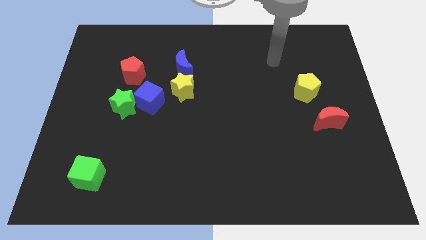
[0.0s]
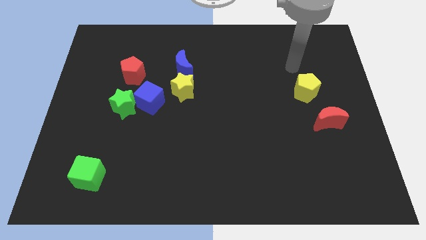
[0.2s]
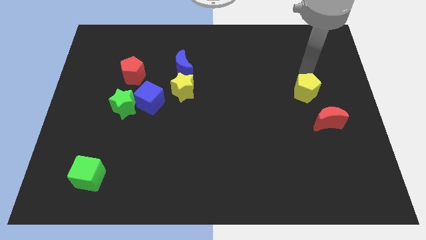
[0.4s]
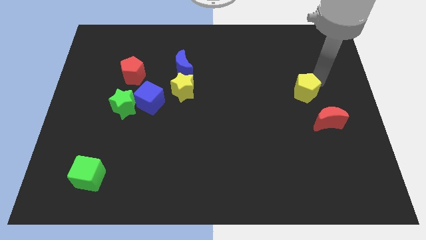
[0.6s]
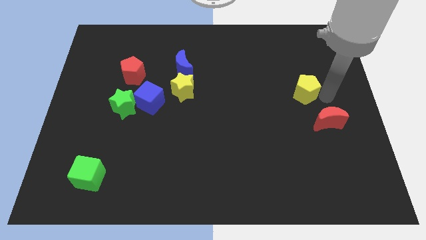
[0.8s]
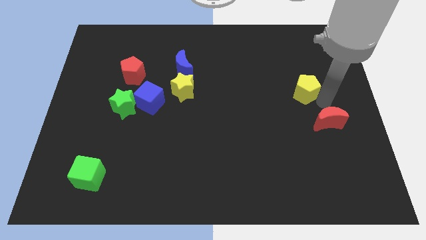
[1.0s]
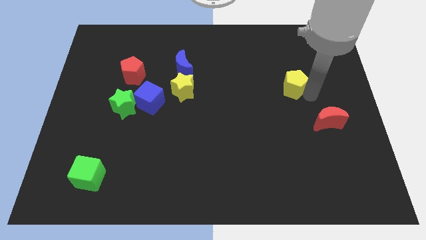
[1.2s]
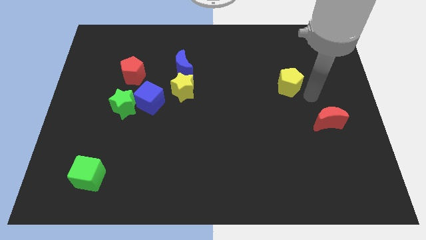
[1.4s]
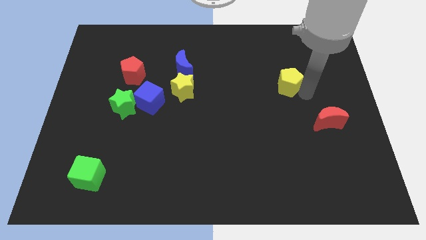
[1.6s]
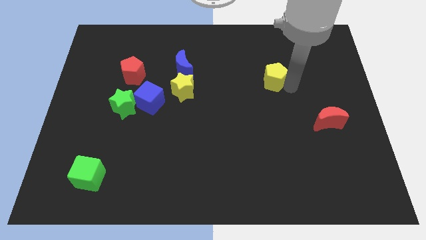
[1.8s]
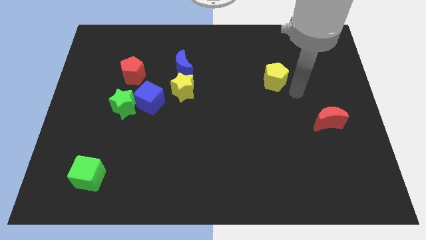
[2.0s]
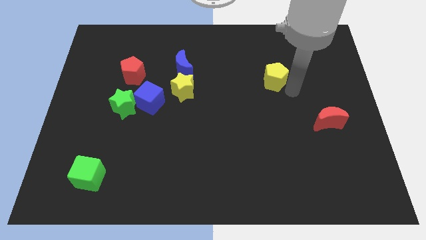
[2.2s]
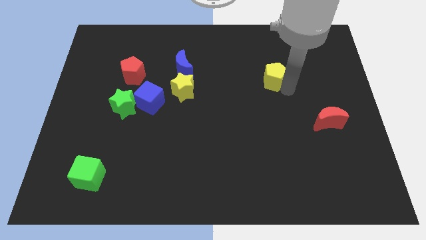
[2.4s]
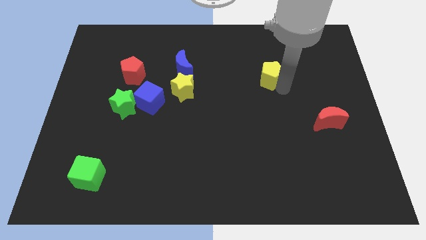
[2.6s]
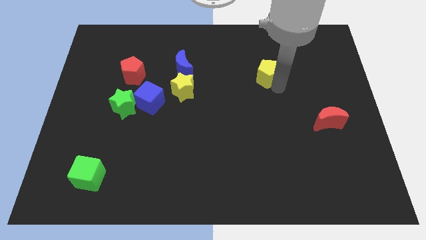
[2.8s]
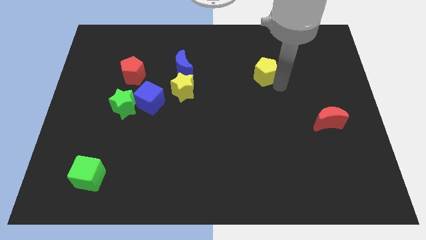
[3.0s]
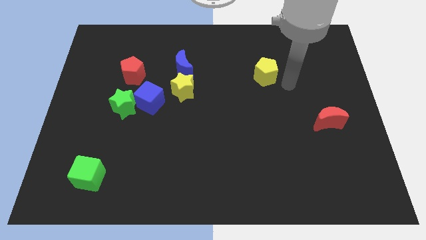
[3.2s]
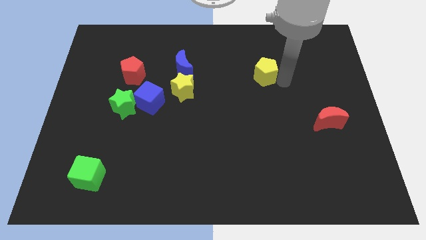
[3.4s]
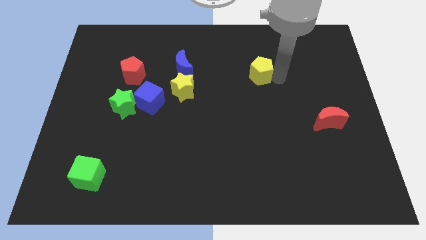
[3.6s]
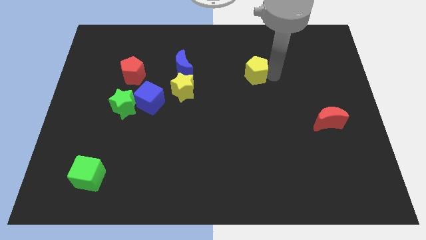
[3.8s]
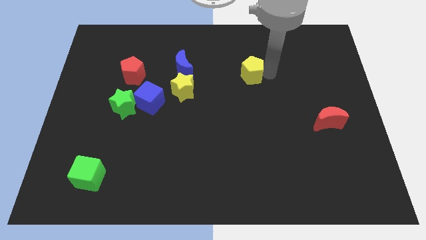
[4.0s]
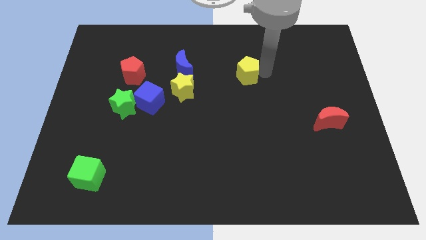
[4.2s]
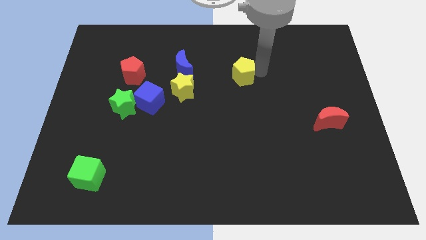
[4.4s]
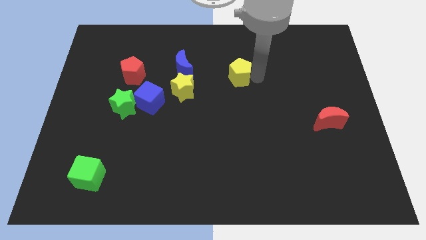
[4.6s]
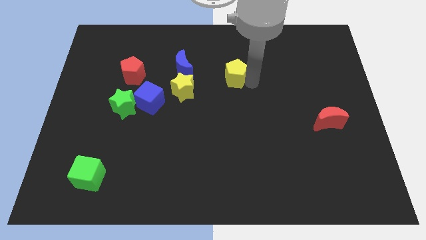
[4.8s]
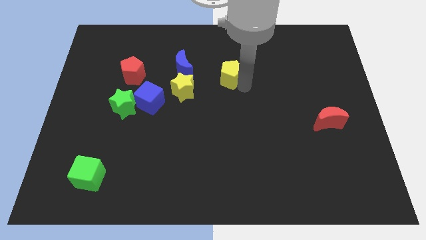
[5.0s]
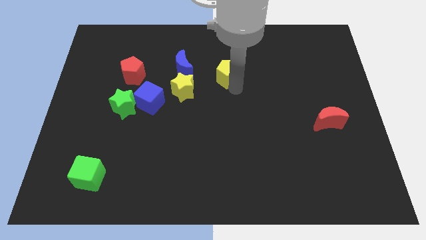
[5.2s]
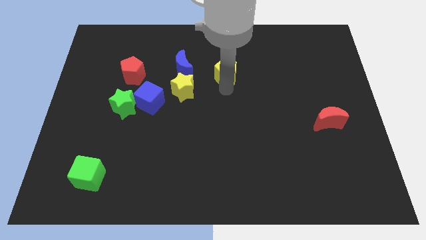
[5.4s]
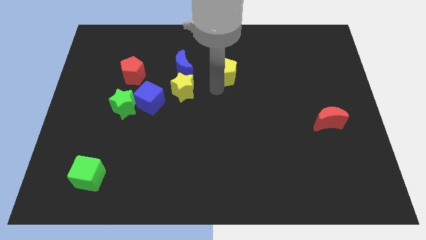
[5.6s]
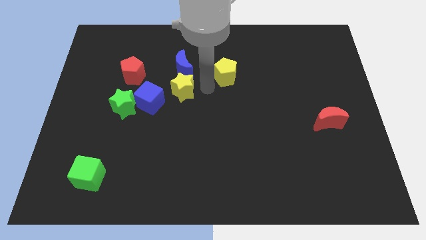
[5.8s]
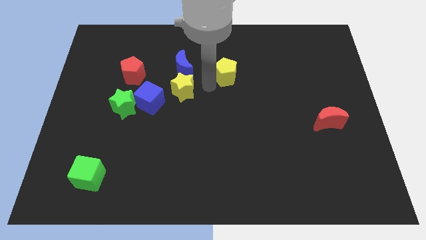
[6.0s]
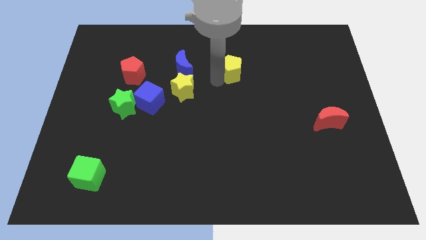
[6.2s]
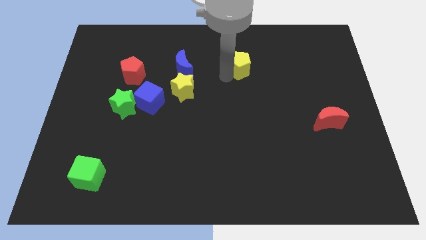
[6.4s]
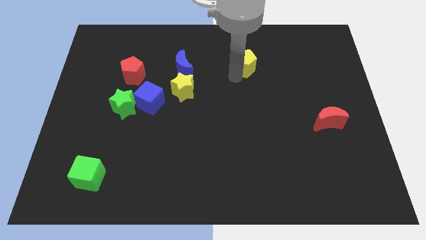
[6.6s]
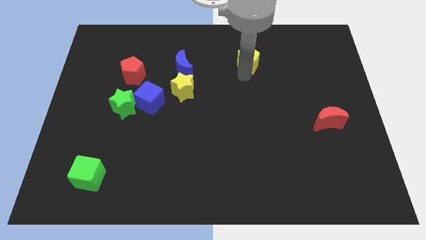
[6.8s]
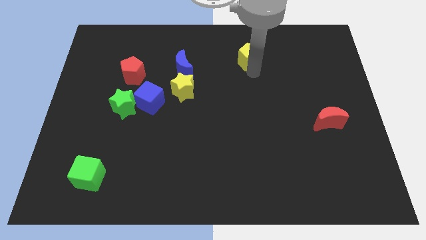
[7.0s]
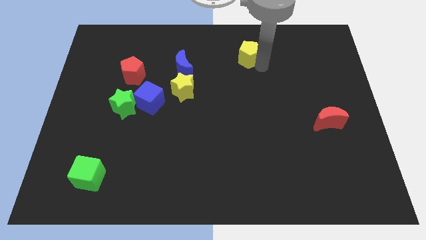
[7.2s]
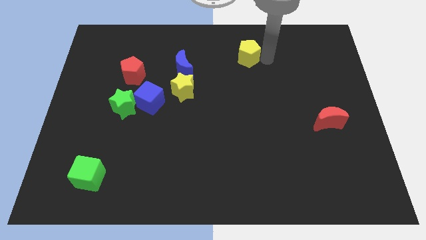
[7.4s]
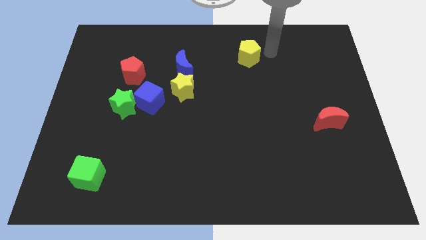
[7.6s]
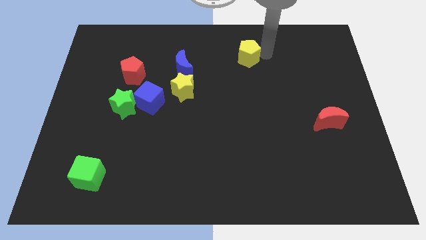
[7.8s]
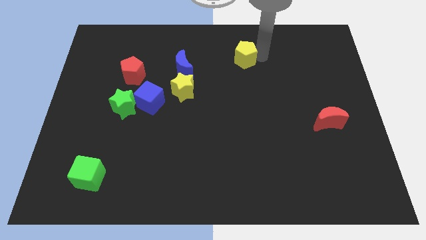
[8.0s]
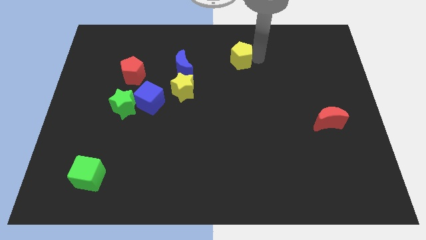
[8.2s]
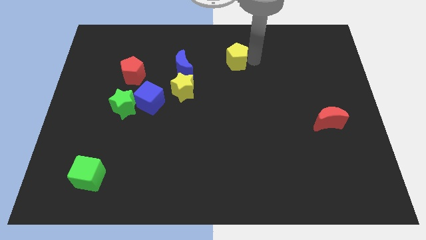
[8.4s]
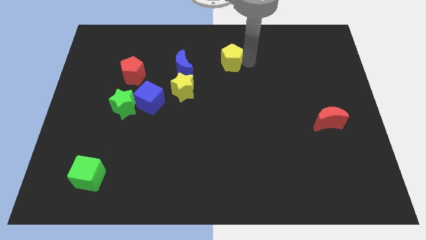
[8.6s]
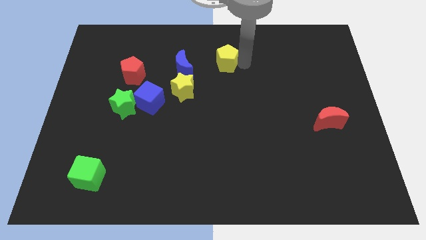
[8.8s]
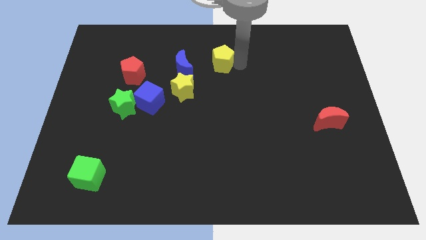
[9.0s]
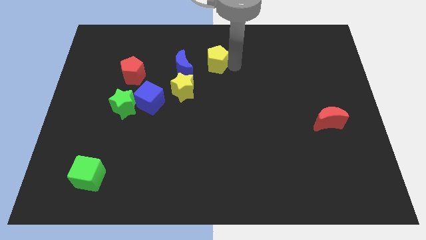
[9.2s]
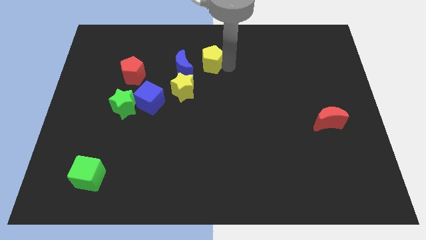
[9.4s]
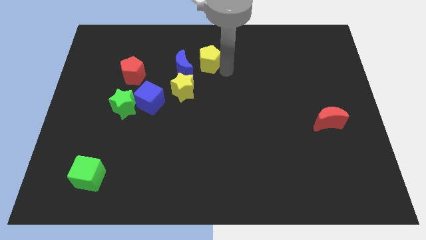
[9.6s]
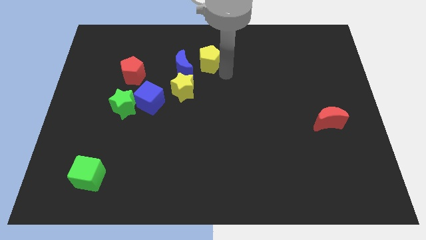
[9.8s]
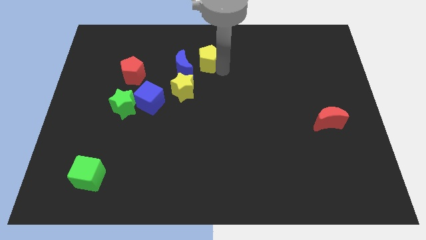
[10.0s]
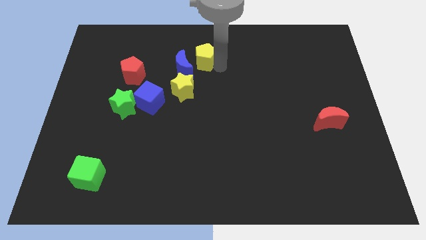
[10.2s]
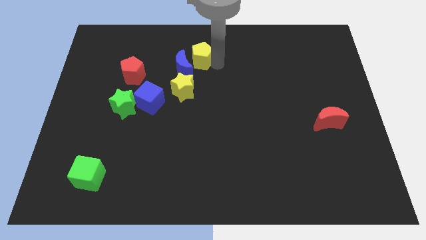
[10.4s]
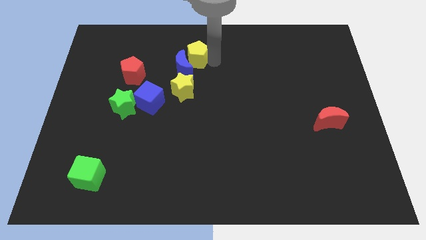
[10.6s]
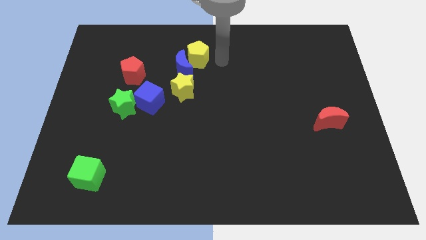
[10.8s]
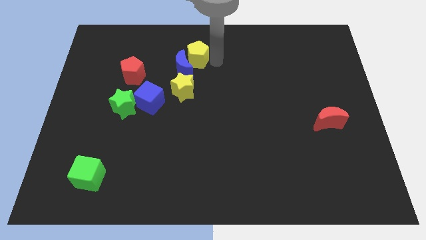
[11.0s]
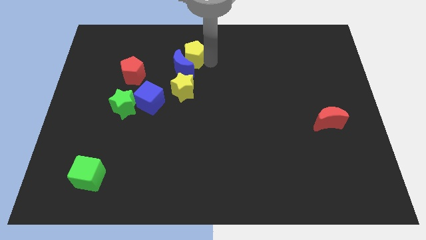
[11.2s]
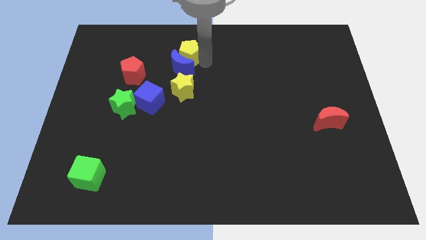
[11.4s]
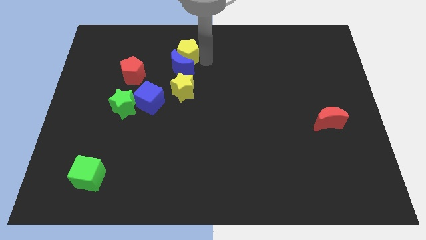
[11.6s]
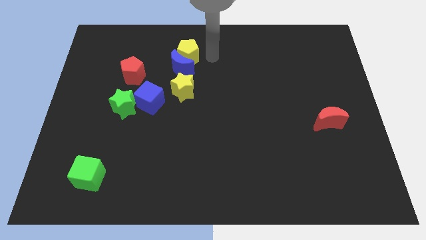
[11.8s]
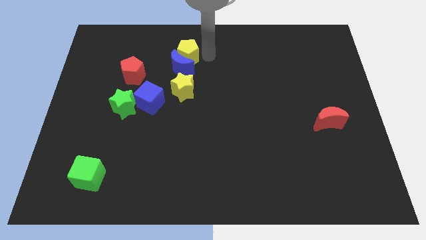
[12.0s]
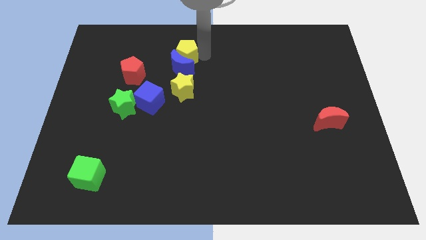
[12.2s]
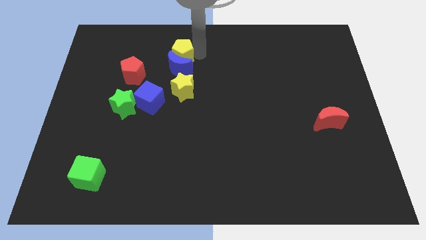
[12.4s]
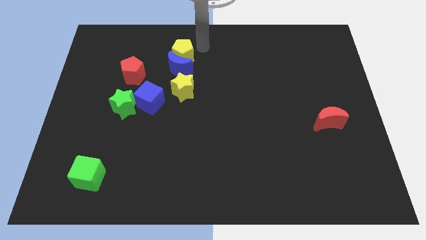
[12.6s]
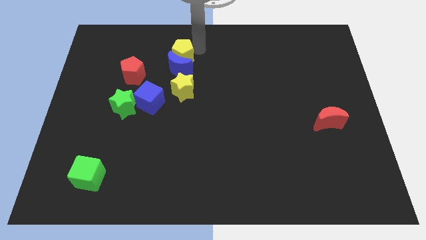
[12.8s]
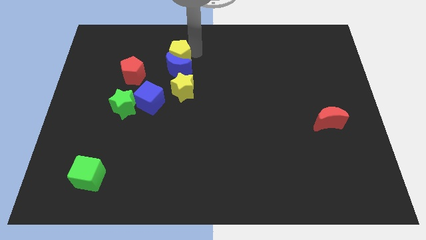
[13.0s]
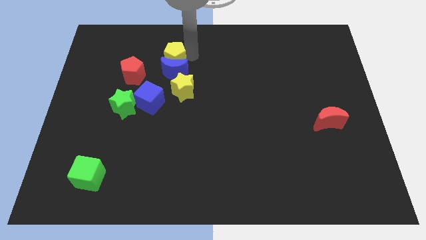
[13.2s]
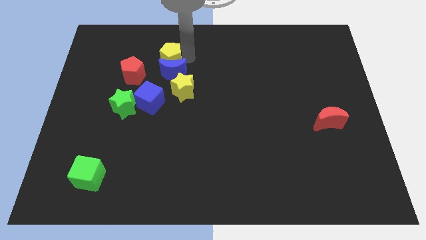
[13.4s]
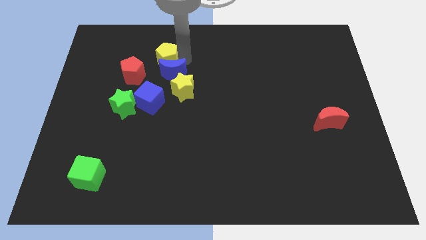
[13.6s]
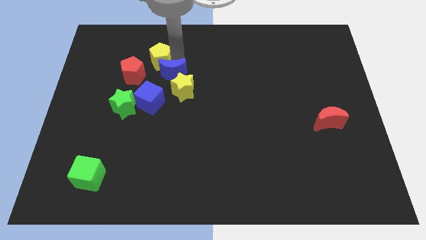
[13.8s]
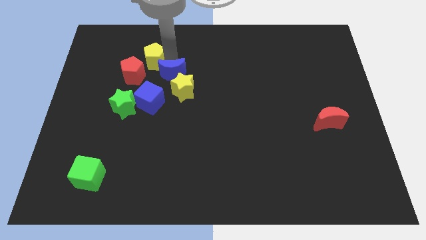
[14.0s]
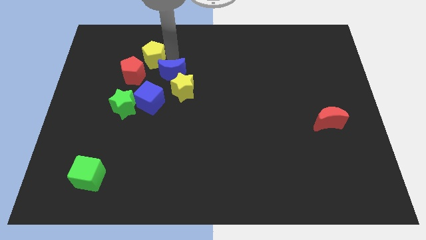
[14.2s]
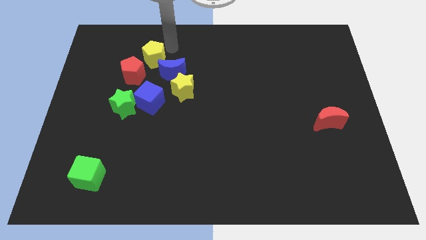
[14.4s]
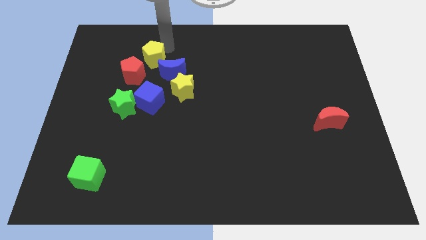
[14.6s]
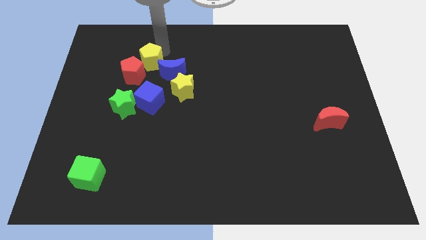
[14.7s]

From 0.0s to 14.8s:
slide the yellow pentagon to the red pentagon

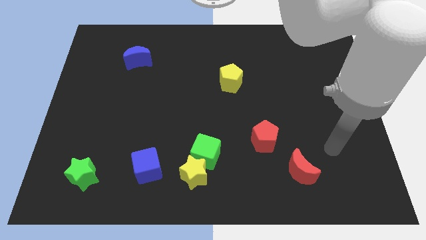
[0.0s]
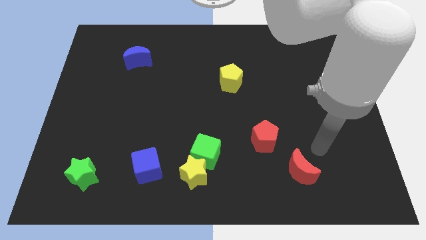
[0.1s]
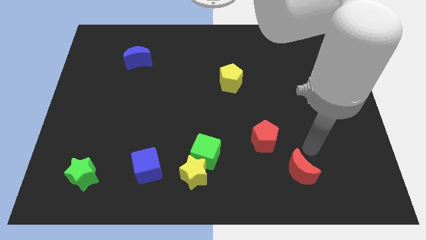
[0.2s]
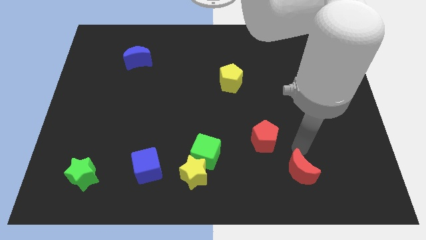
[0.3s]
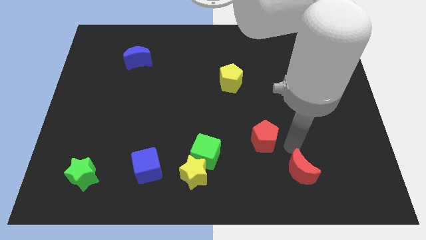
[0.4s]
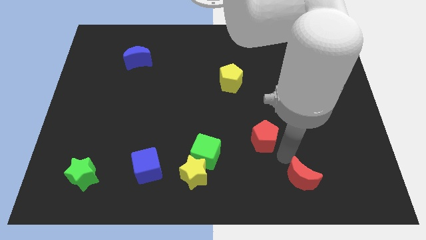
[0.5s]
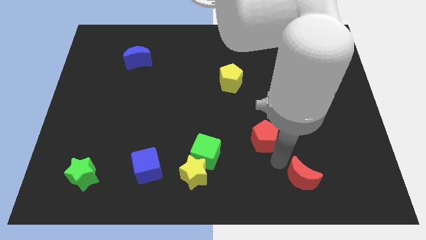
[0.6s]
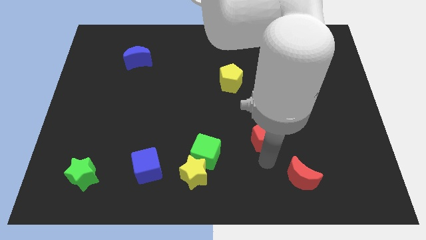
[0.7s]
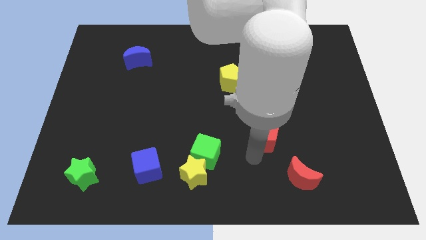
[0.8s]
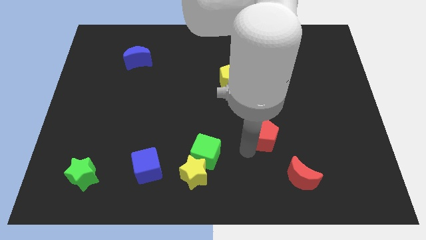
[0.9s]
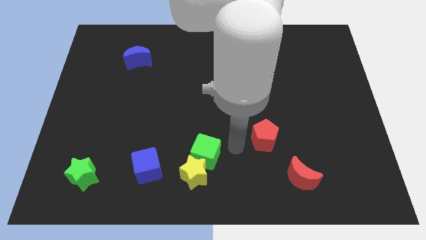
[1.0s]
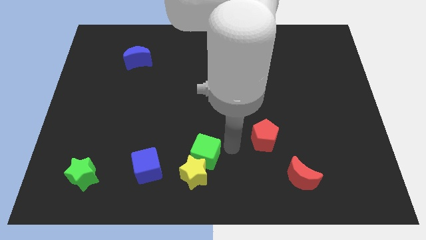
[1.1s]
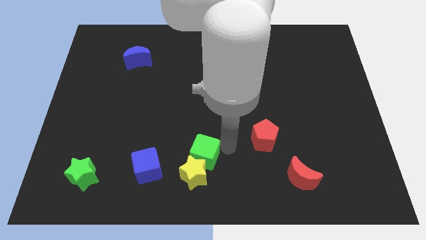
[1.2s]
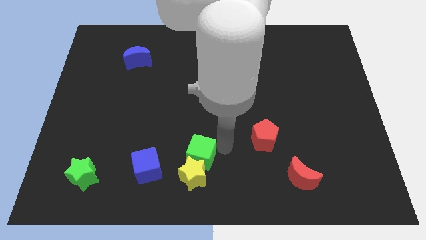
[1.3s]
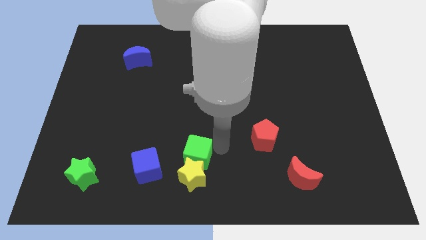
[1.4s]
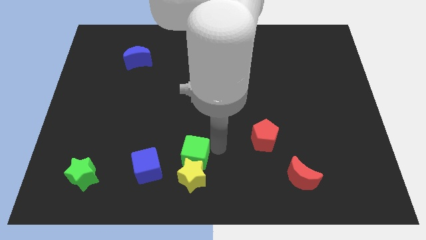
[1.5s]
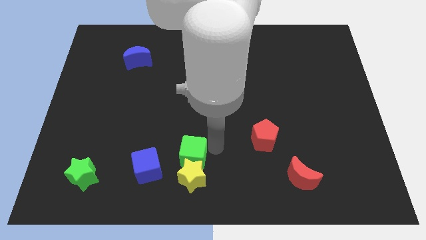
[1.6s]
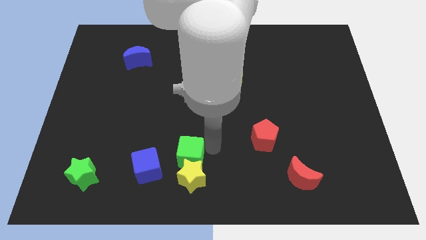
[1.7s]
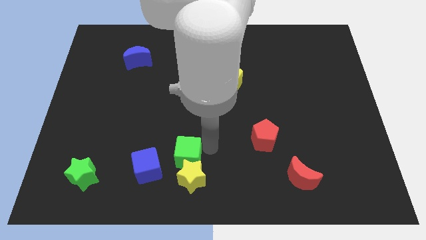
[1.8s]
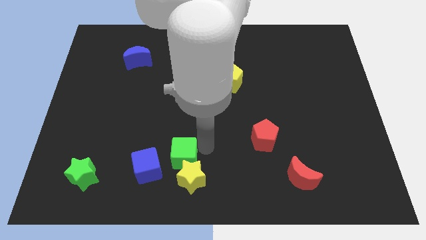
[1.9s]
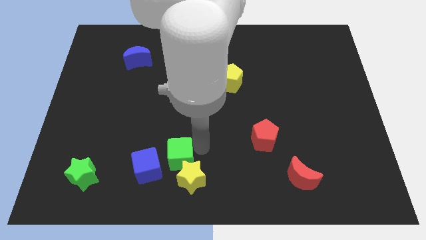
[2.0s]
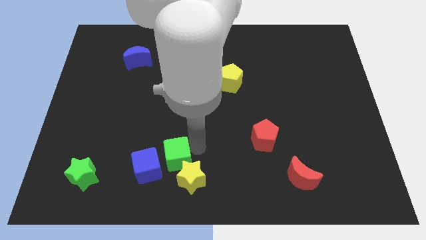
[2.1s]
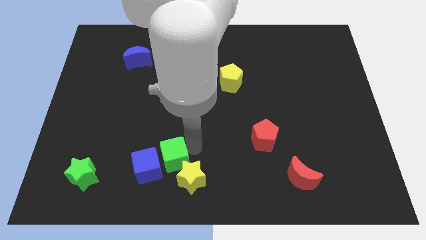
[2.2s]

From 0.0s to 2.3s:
push the green cube close to the blue cube
